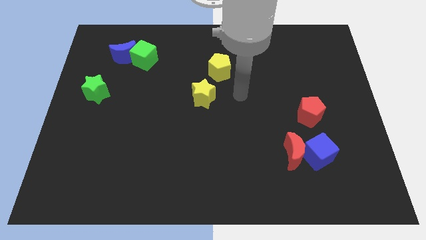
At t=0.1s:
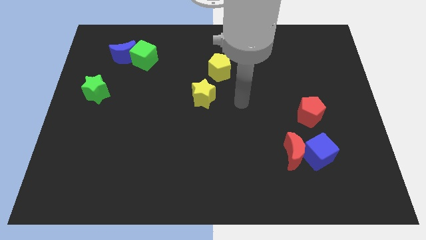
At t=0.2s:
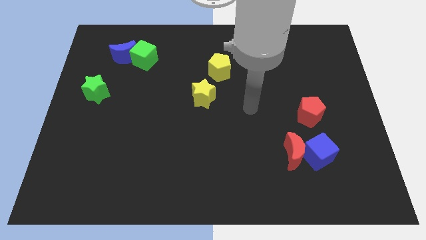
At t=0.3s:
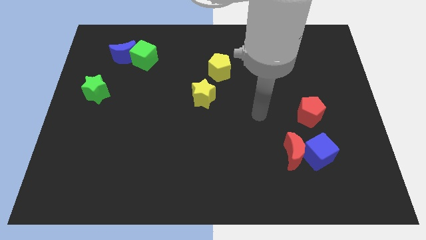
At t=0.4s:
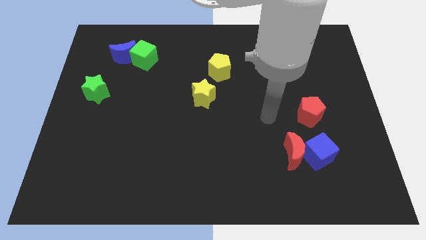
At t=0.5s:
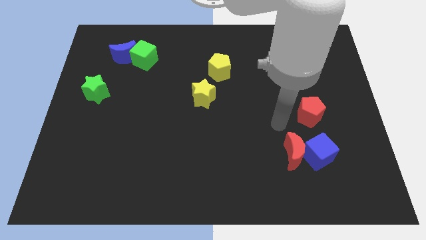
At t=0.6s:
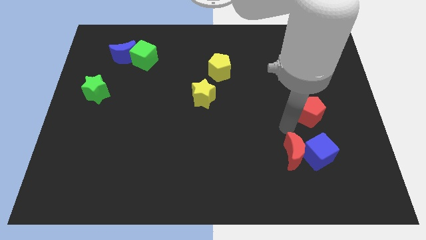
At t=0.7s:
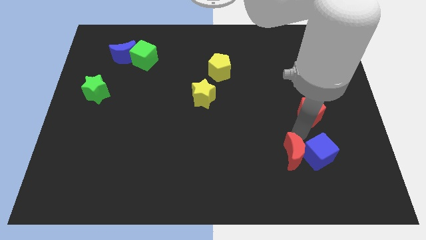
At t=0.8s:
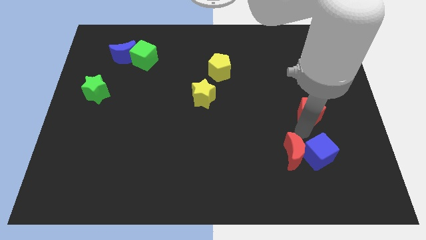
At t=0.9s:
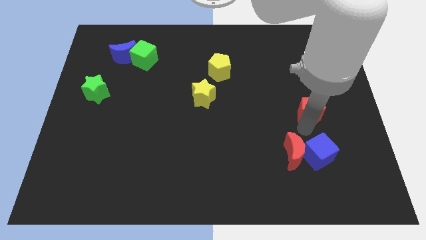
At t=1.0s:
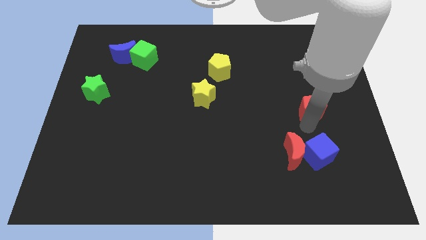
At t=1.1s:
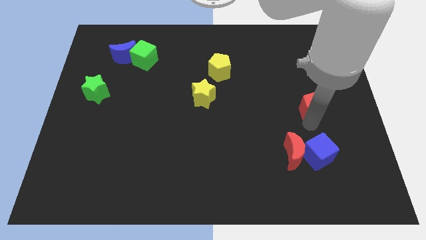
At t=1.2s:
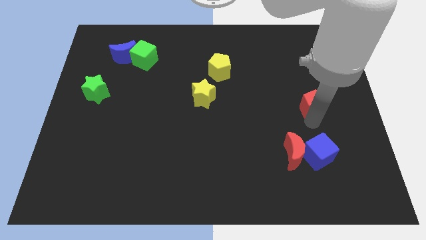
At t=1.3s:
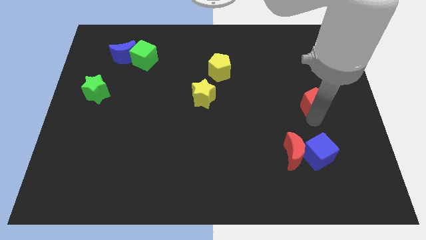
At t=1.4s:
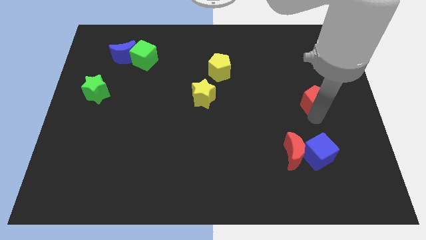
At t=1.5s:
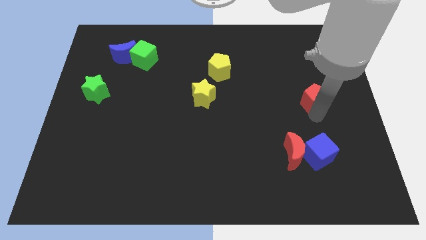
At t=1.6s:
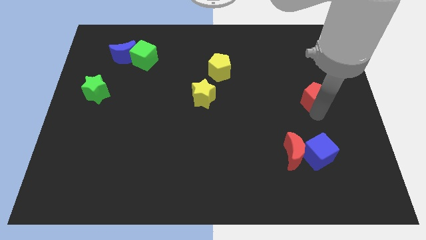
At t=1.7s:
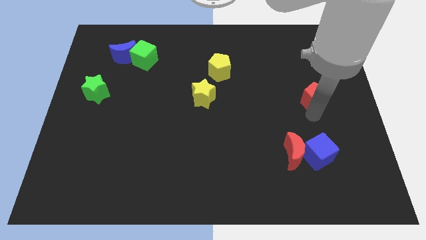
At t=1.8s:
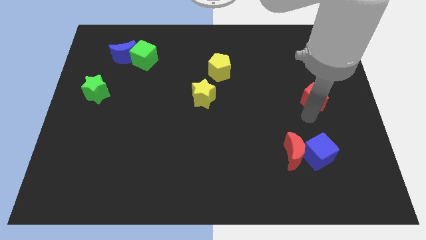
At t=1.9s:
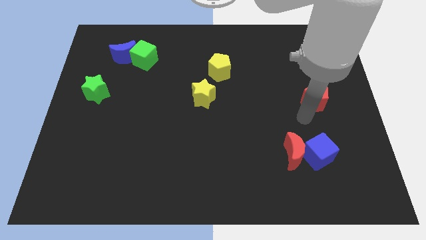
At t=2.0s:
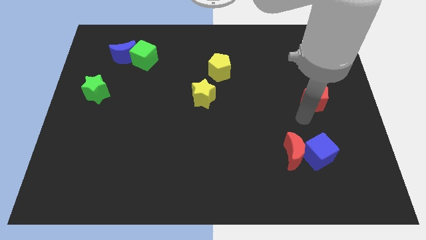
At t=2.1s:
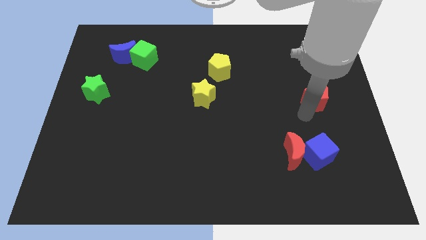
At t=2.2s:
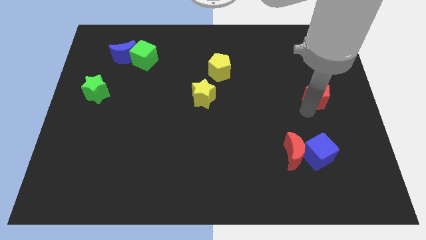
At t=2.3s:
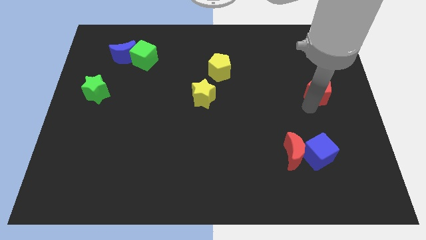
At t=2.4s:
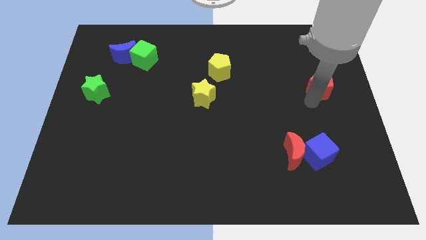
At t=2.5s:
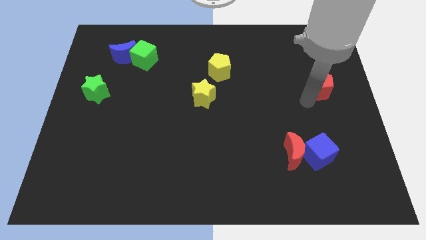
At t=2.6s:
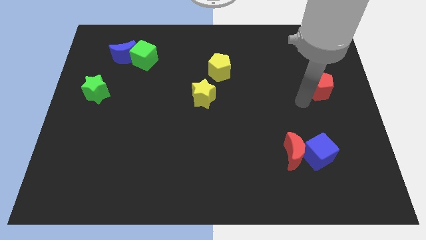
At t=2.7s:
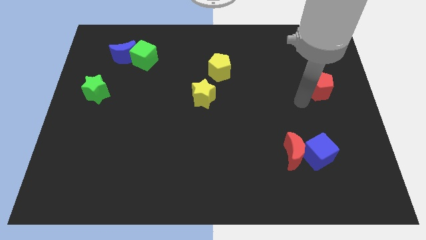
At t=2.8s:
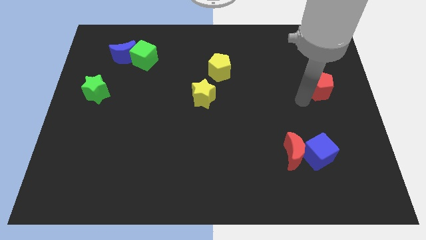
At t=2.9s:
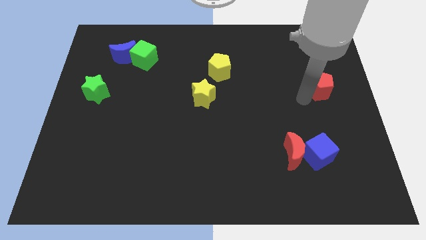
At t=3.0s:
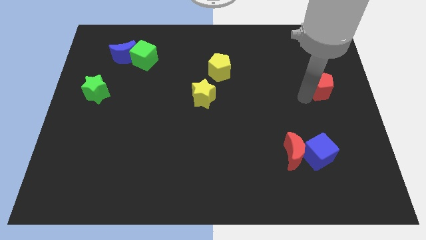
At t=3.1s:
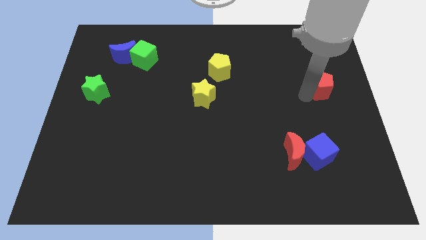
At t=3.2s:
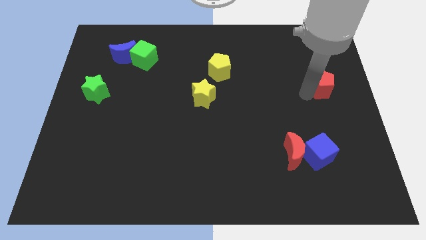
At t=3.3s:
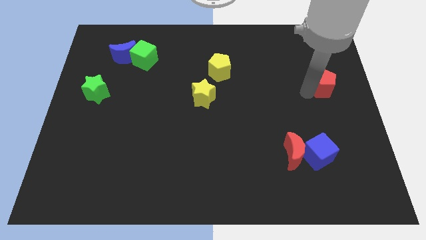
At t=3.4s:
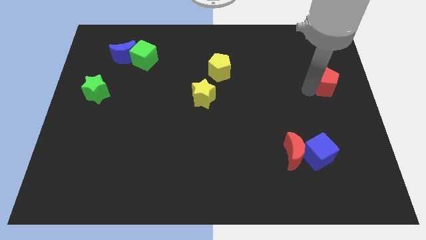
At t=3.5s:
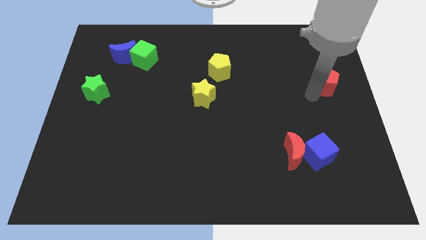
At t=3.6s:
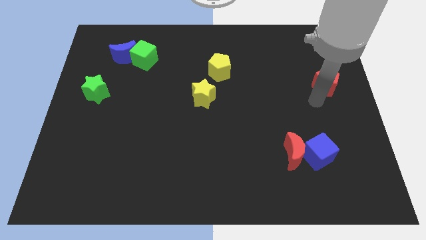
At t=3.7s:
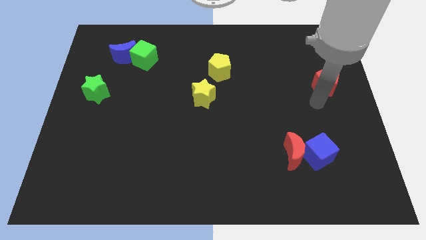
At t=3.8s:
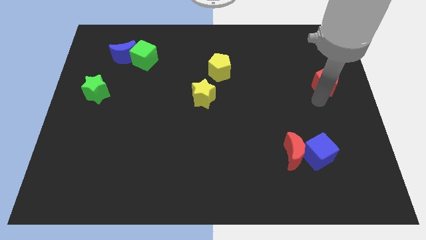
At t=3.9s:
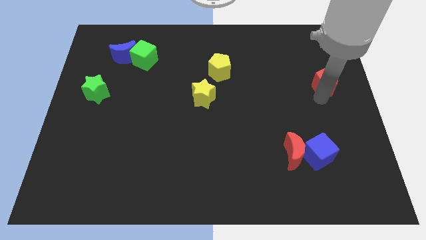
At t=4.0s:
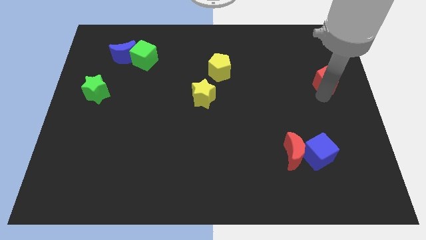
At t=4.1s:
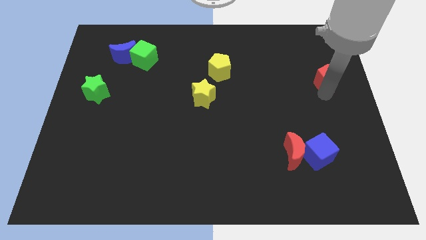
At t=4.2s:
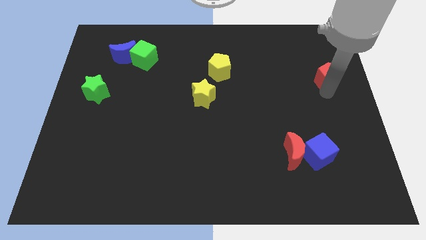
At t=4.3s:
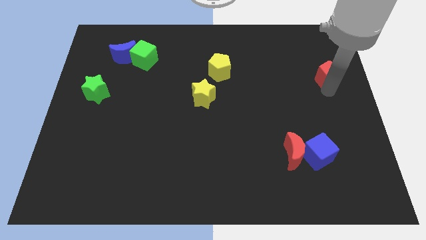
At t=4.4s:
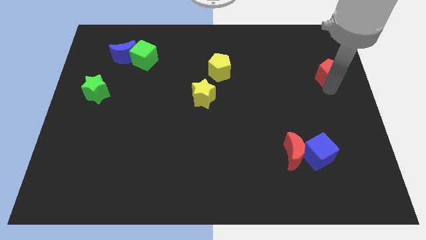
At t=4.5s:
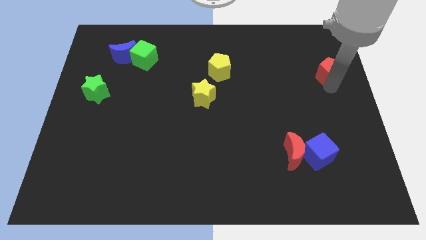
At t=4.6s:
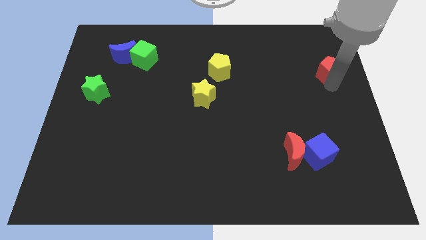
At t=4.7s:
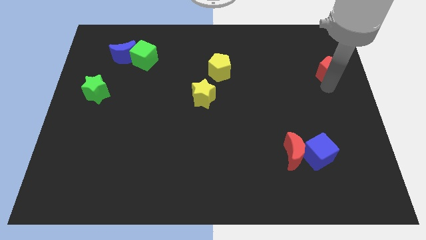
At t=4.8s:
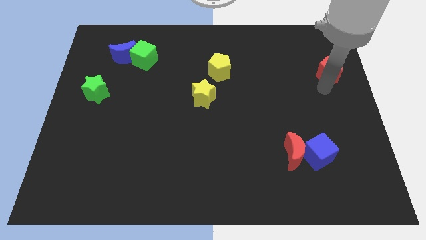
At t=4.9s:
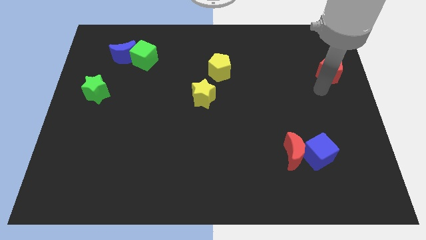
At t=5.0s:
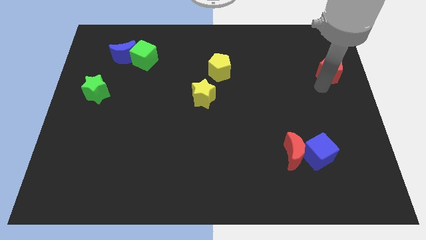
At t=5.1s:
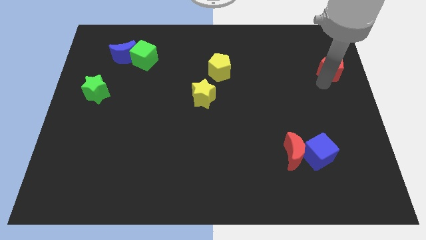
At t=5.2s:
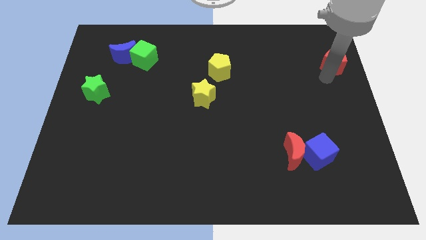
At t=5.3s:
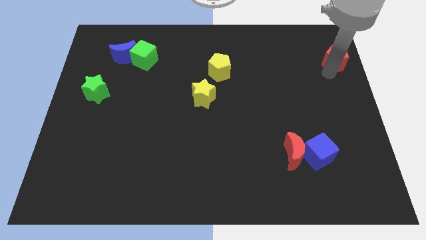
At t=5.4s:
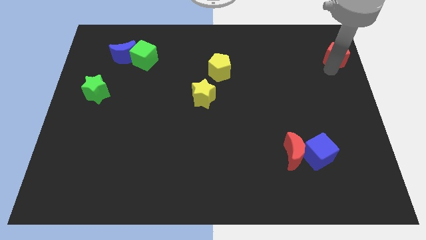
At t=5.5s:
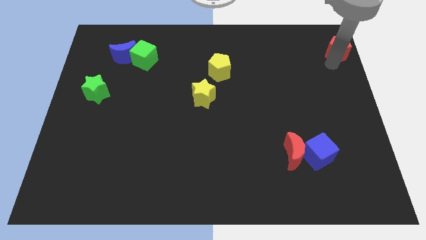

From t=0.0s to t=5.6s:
slide the red pentagon to the upper right corner
